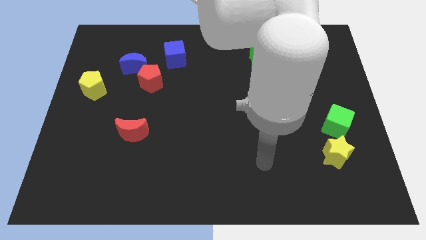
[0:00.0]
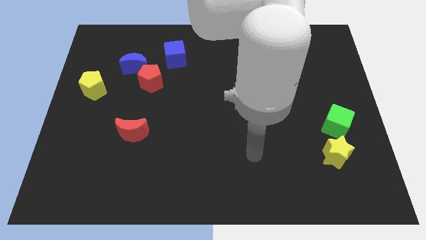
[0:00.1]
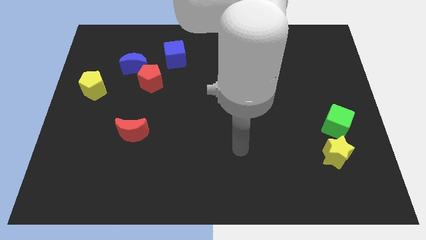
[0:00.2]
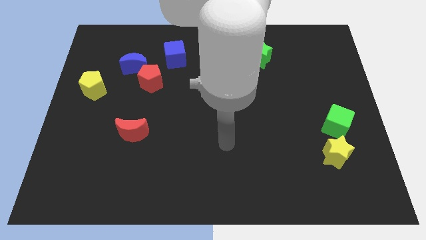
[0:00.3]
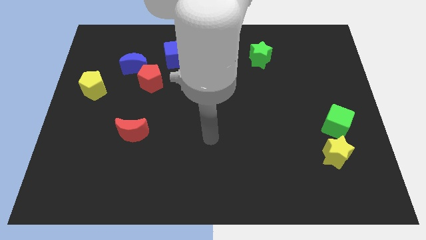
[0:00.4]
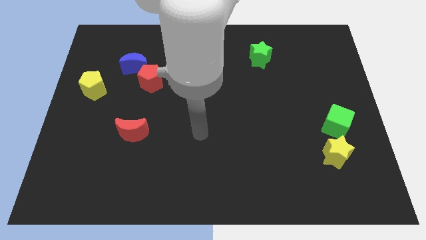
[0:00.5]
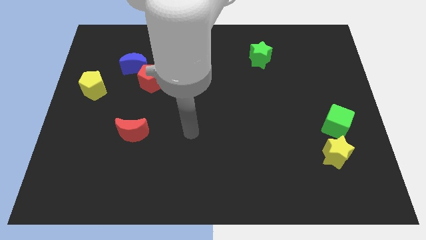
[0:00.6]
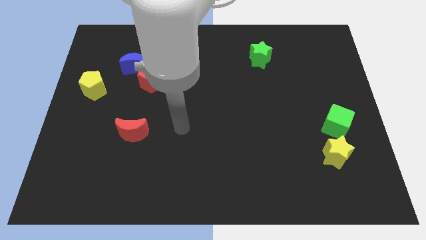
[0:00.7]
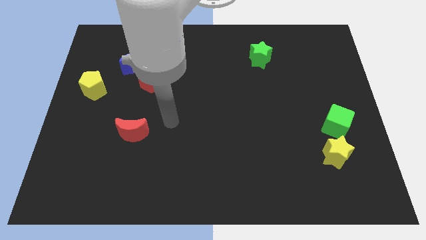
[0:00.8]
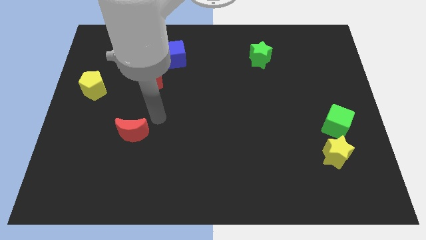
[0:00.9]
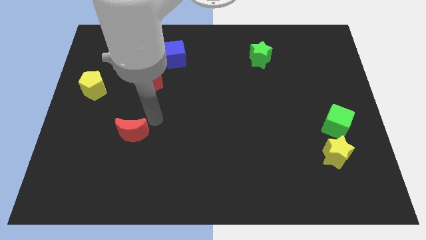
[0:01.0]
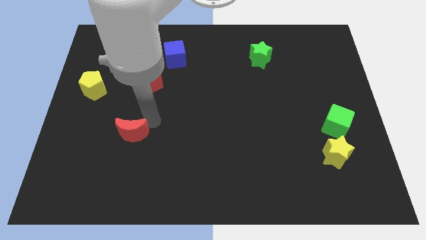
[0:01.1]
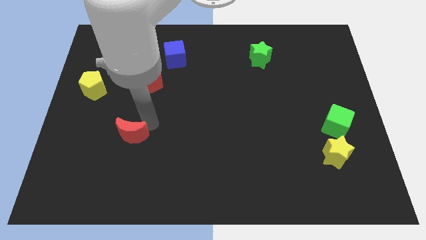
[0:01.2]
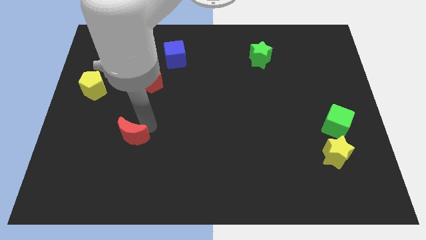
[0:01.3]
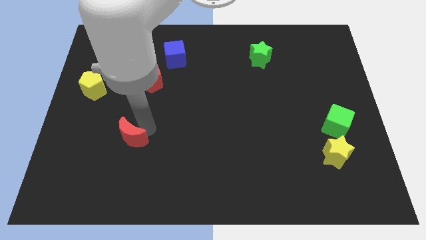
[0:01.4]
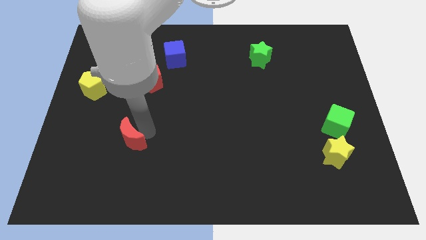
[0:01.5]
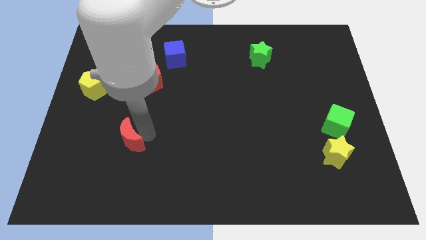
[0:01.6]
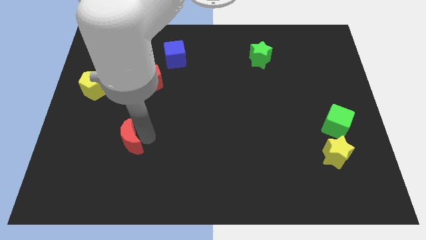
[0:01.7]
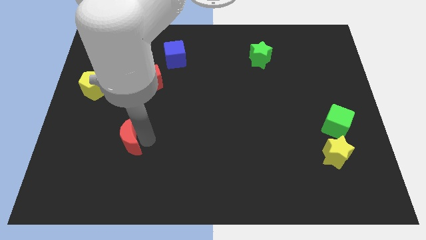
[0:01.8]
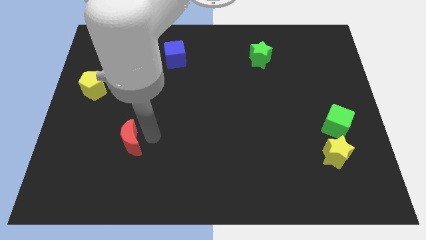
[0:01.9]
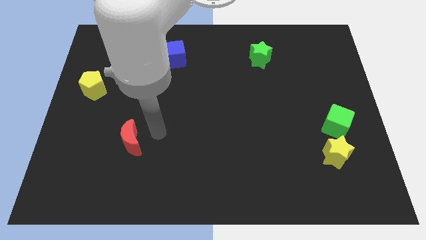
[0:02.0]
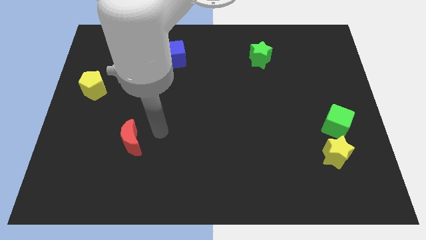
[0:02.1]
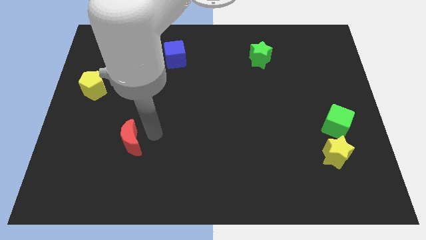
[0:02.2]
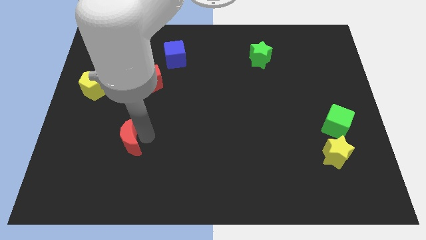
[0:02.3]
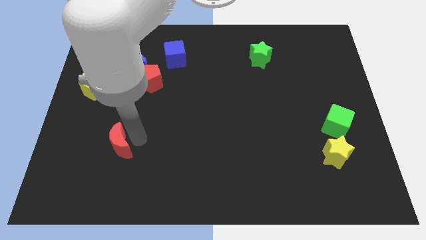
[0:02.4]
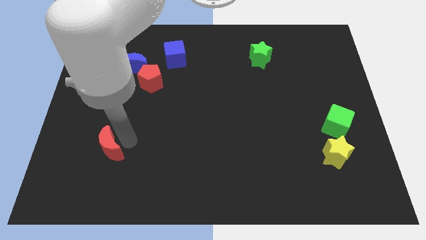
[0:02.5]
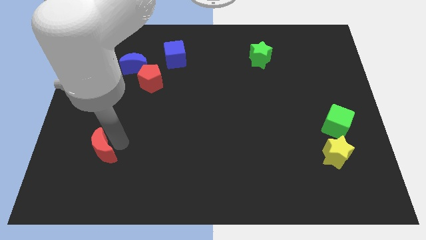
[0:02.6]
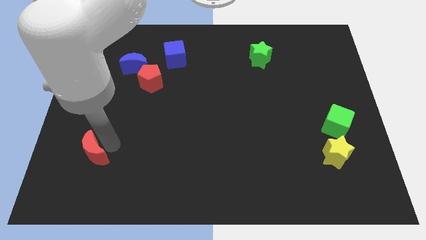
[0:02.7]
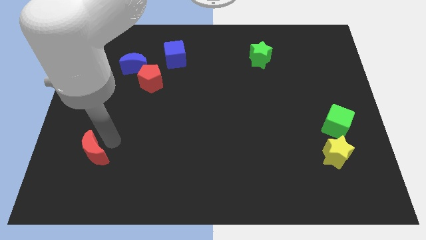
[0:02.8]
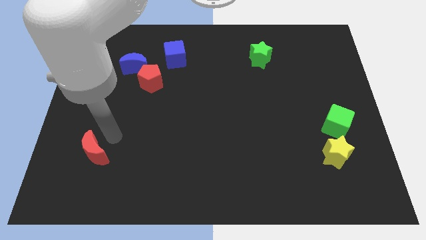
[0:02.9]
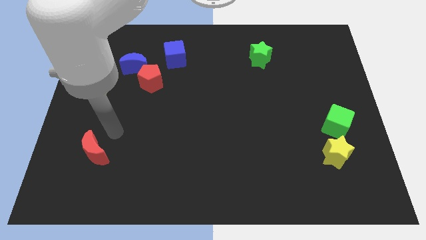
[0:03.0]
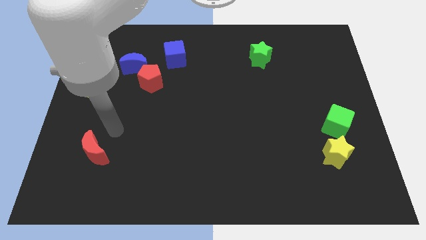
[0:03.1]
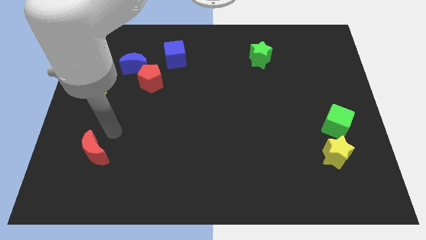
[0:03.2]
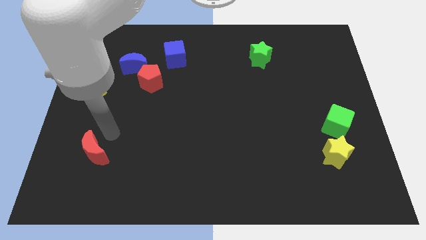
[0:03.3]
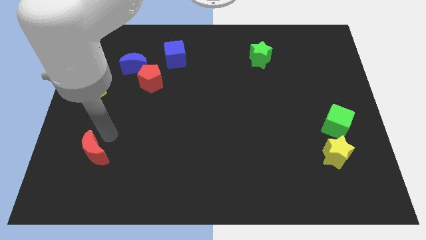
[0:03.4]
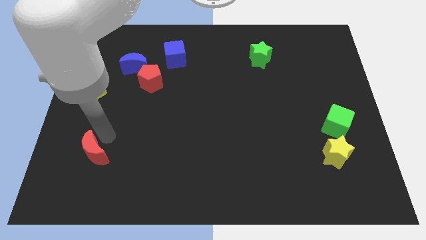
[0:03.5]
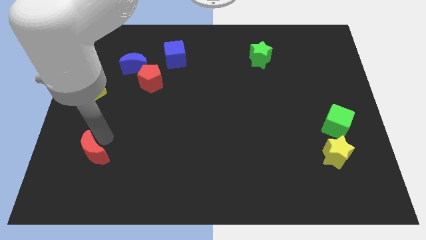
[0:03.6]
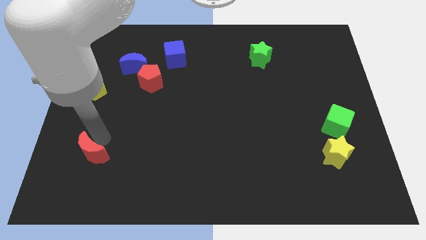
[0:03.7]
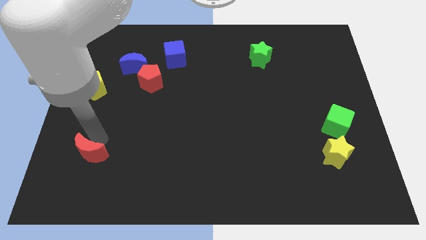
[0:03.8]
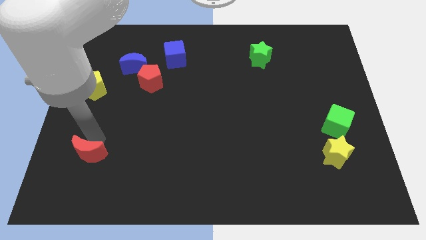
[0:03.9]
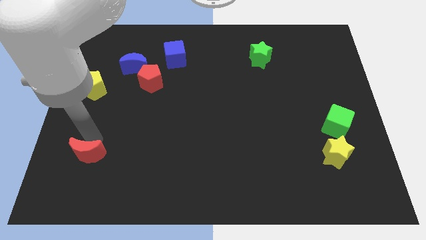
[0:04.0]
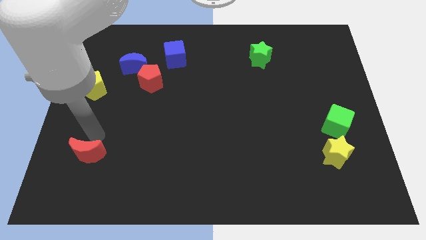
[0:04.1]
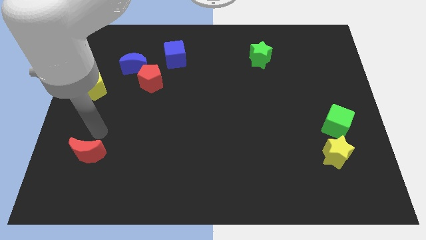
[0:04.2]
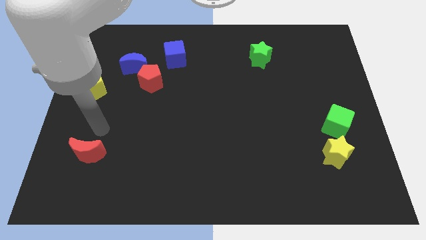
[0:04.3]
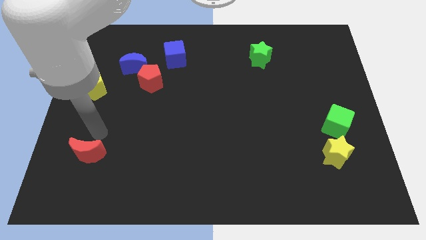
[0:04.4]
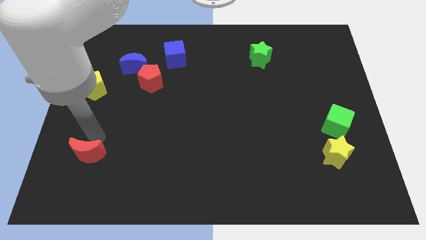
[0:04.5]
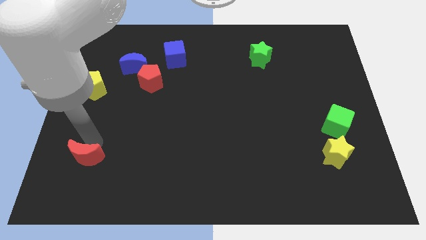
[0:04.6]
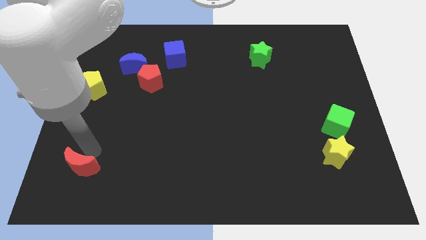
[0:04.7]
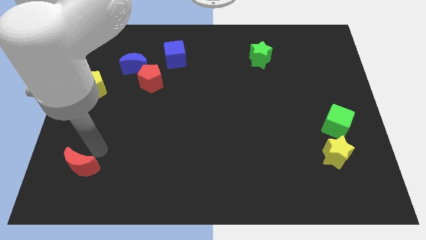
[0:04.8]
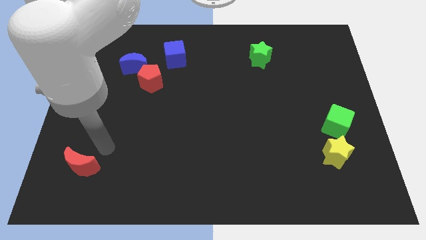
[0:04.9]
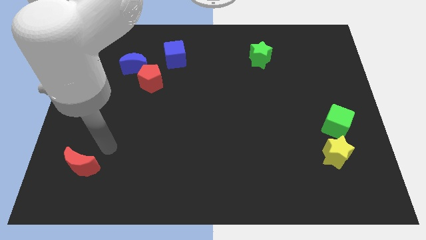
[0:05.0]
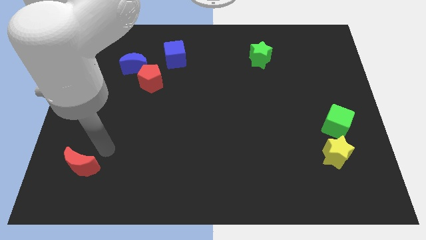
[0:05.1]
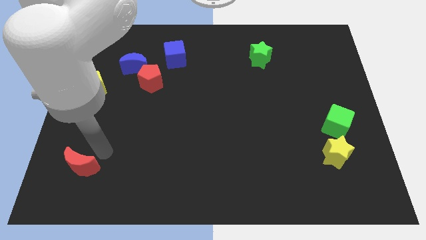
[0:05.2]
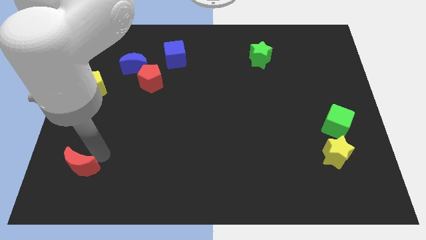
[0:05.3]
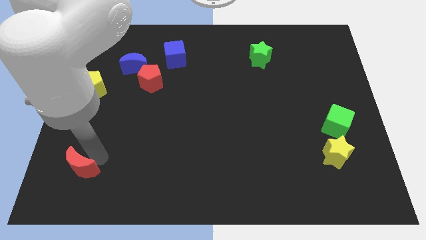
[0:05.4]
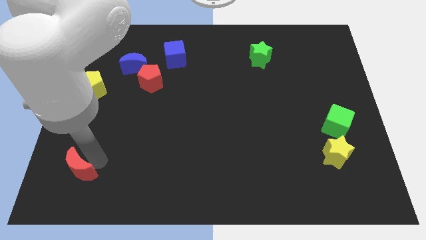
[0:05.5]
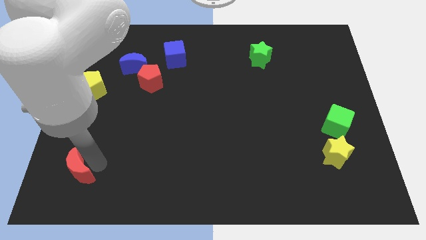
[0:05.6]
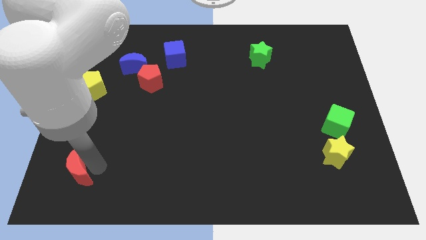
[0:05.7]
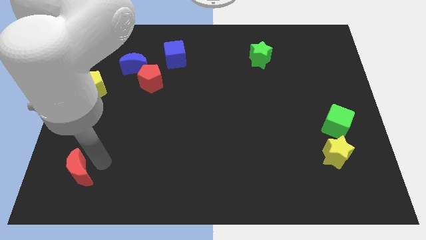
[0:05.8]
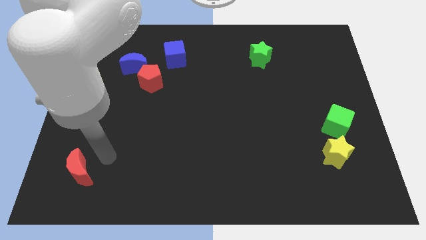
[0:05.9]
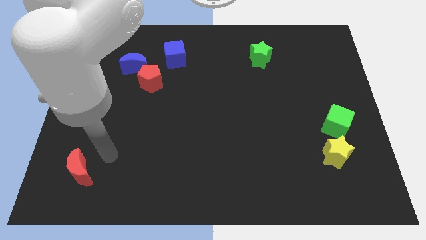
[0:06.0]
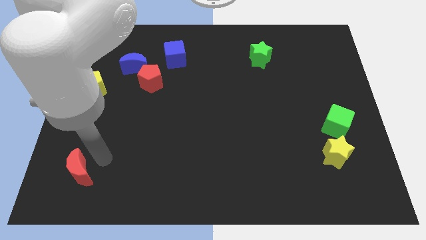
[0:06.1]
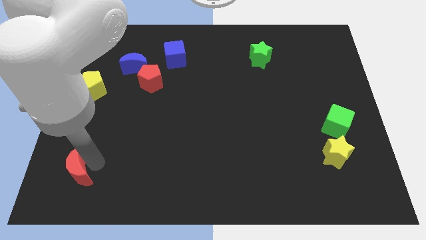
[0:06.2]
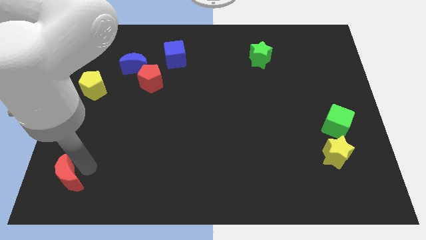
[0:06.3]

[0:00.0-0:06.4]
move the red moon to the lower left corner

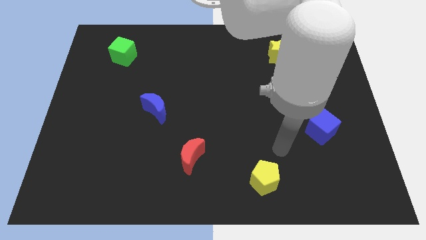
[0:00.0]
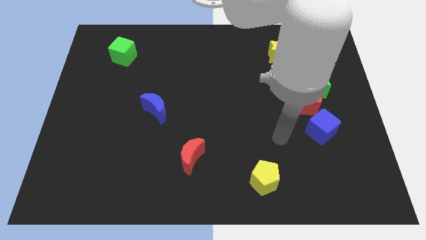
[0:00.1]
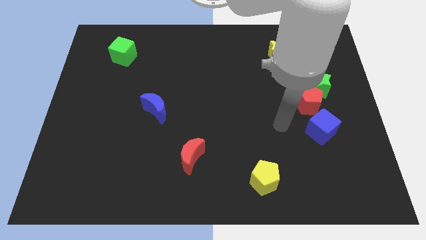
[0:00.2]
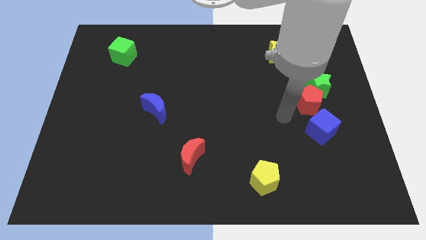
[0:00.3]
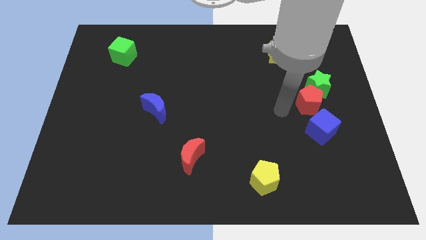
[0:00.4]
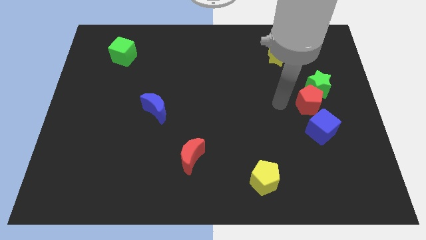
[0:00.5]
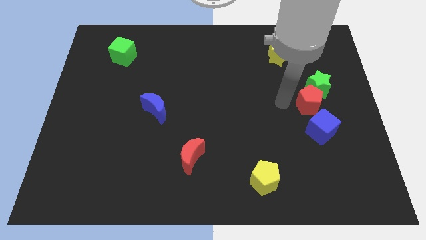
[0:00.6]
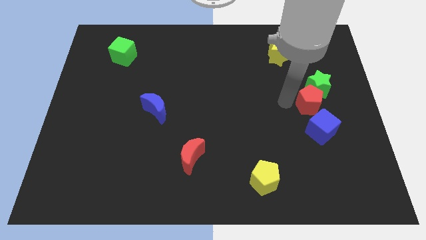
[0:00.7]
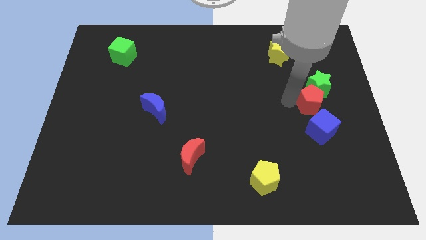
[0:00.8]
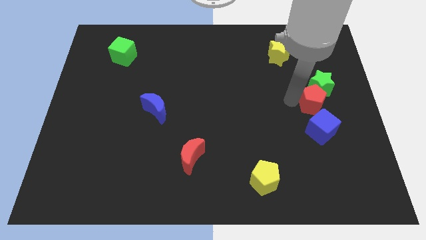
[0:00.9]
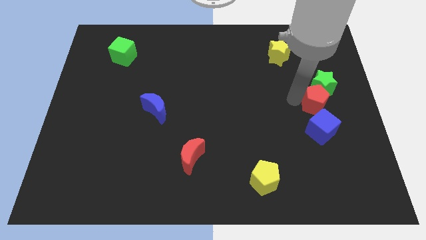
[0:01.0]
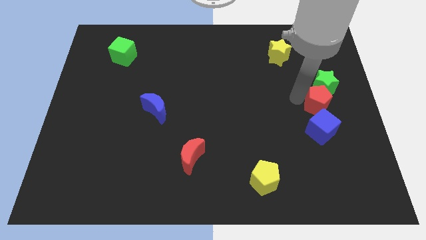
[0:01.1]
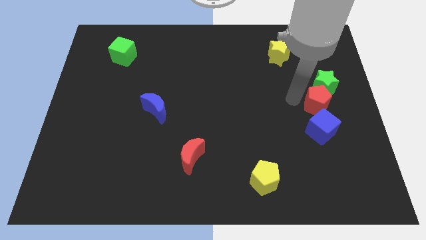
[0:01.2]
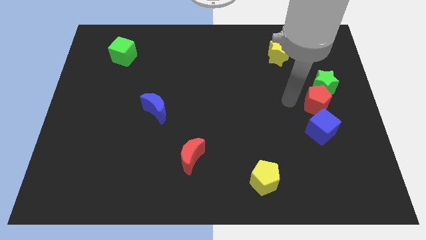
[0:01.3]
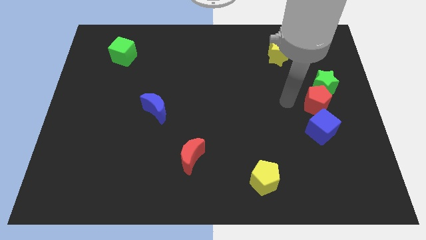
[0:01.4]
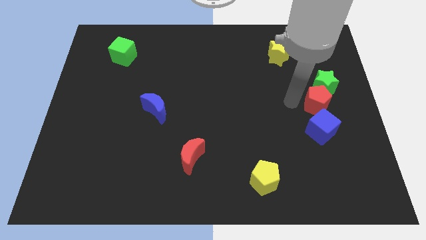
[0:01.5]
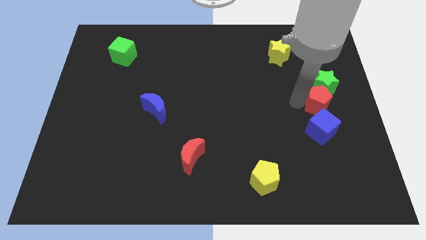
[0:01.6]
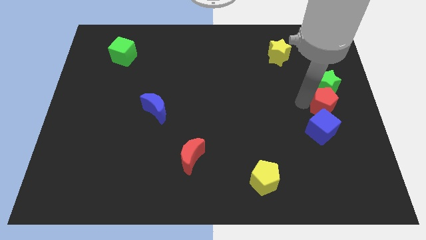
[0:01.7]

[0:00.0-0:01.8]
move the red pentagon to the right side
